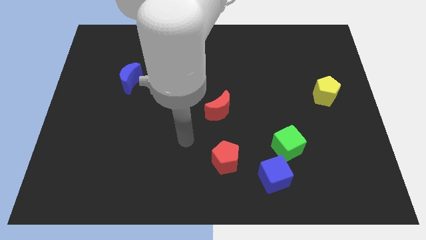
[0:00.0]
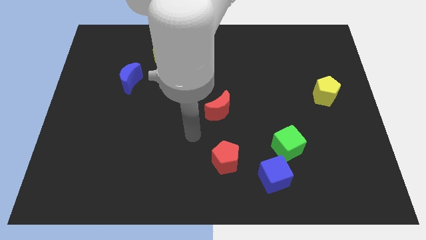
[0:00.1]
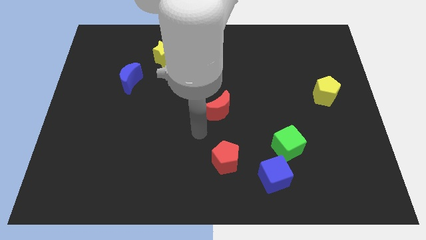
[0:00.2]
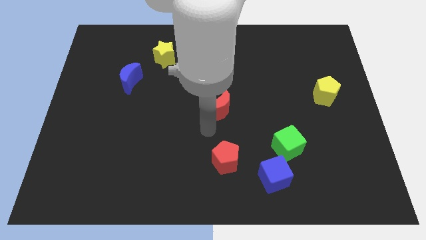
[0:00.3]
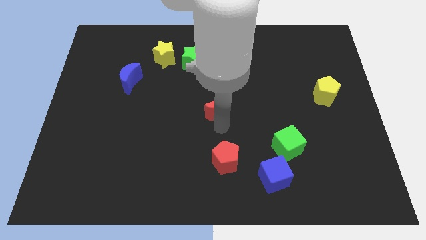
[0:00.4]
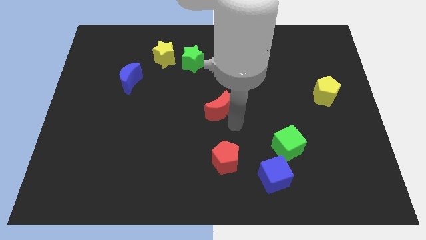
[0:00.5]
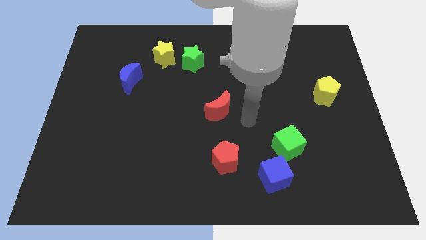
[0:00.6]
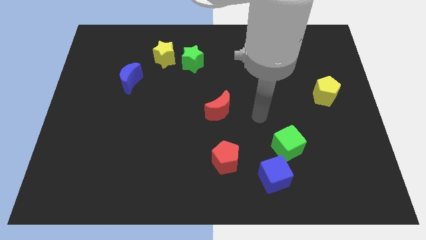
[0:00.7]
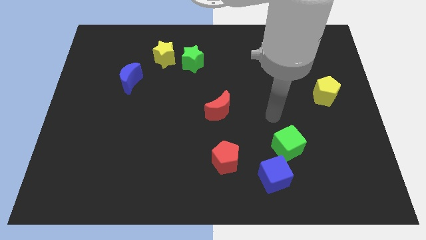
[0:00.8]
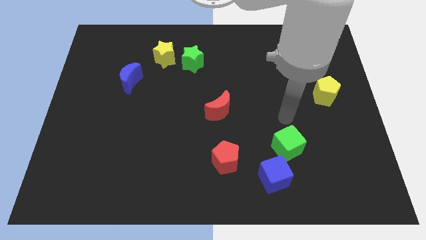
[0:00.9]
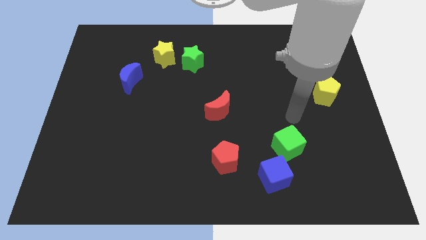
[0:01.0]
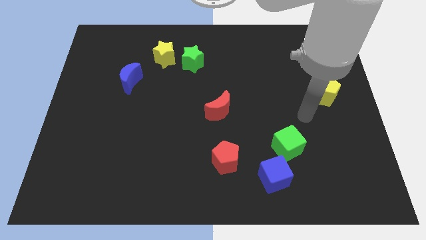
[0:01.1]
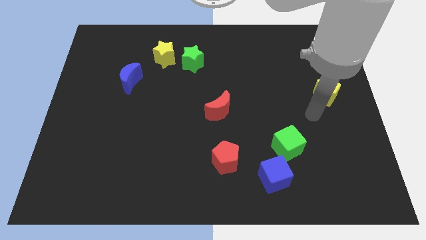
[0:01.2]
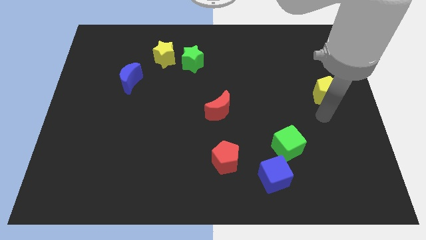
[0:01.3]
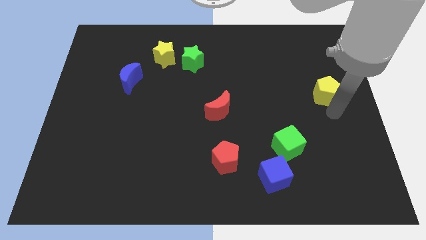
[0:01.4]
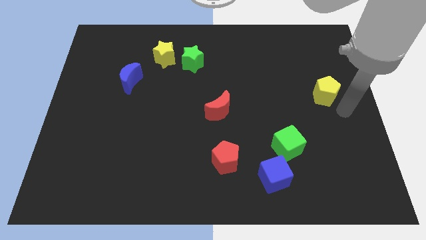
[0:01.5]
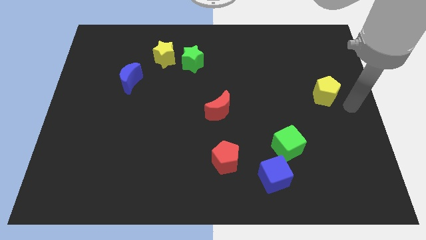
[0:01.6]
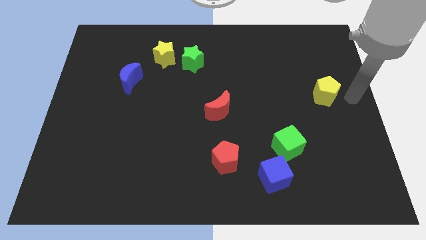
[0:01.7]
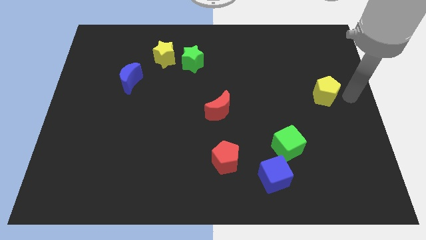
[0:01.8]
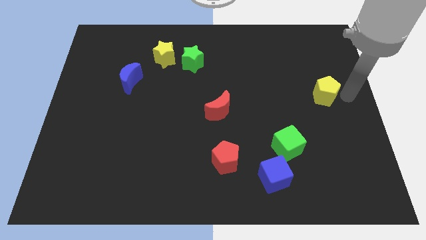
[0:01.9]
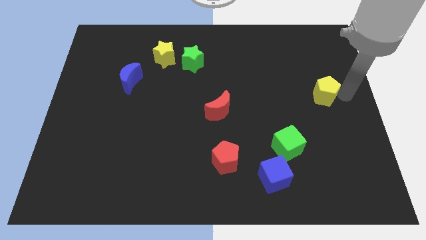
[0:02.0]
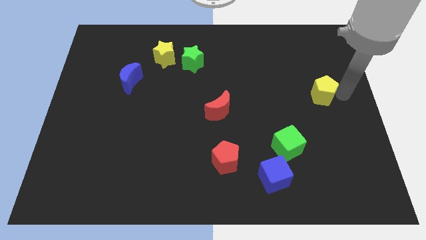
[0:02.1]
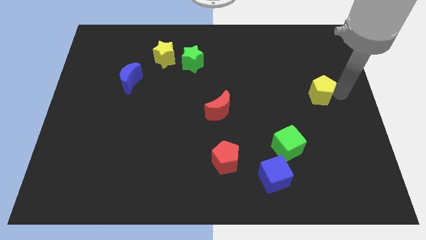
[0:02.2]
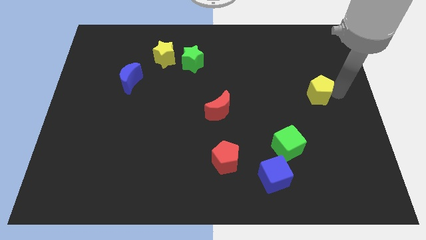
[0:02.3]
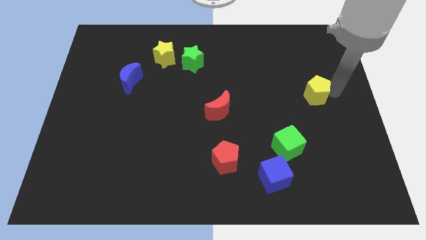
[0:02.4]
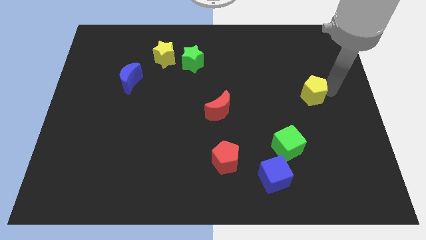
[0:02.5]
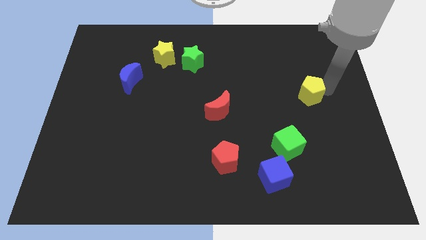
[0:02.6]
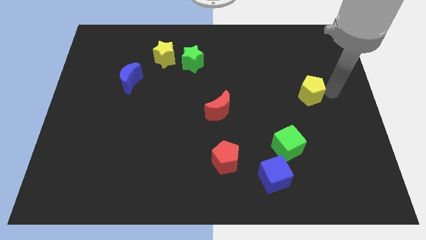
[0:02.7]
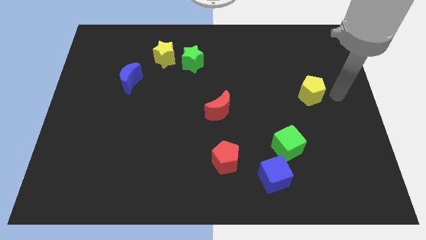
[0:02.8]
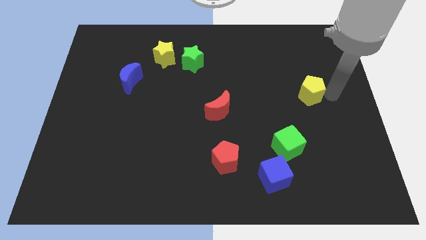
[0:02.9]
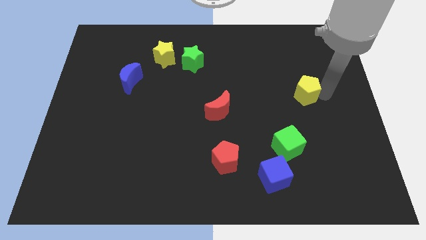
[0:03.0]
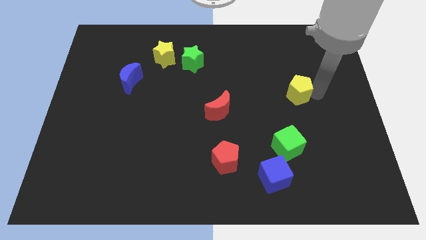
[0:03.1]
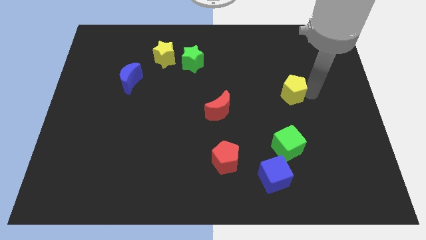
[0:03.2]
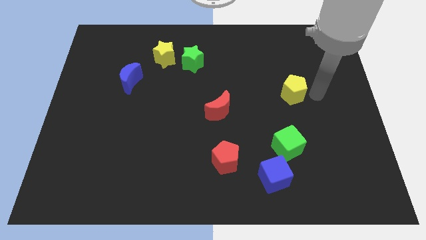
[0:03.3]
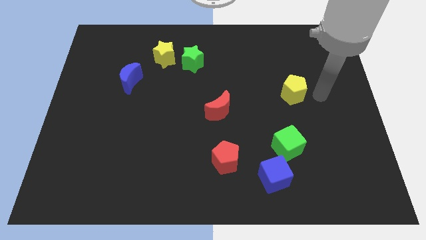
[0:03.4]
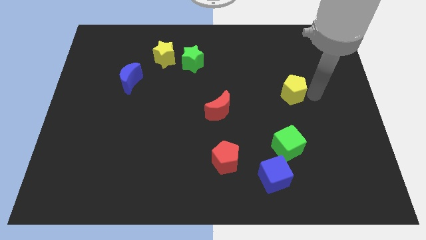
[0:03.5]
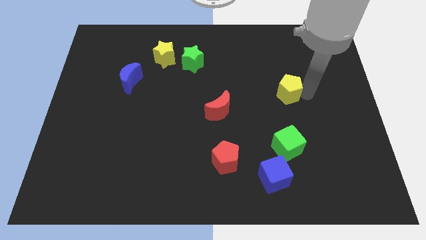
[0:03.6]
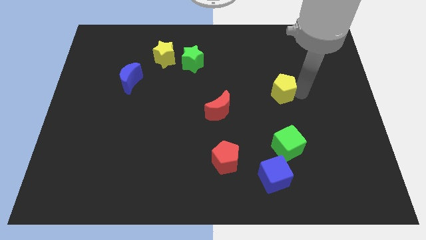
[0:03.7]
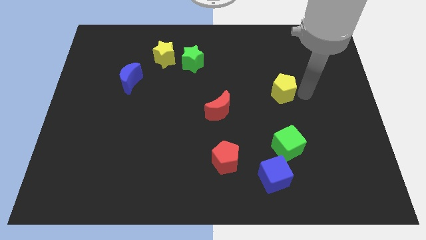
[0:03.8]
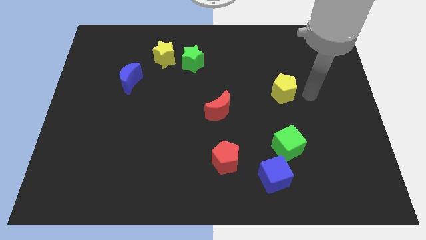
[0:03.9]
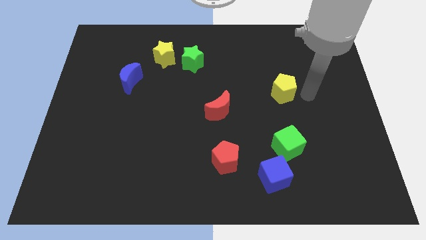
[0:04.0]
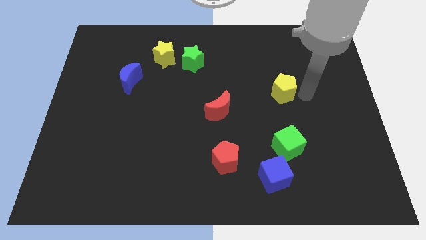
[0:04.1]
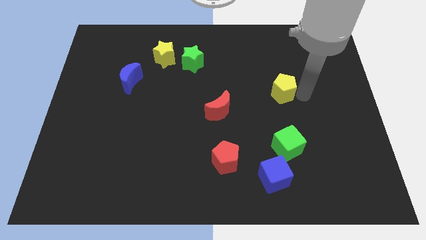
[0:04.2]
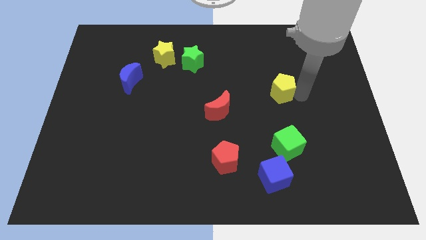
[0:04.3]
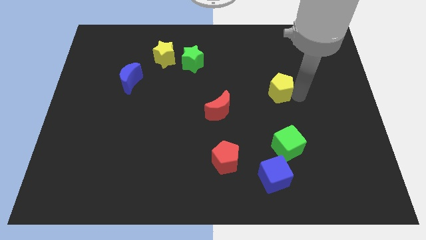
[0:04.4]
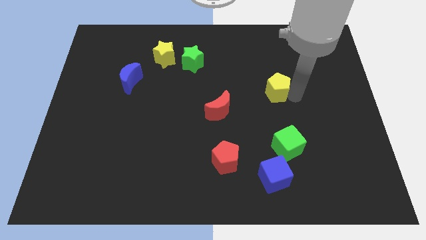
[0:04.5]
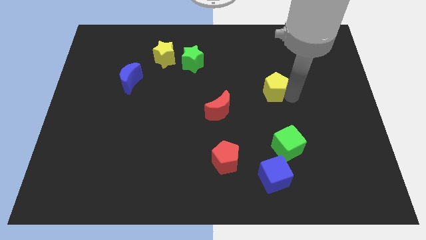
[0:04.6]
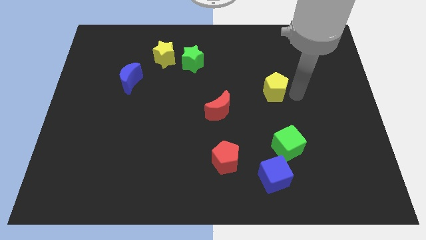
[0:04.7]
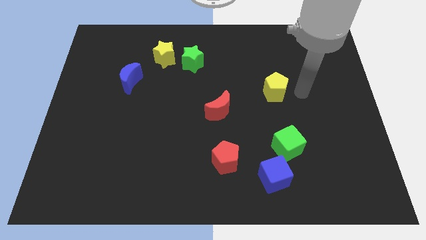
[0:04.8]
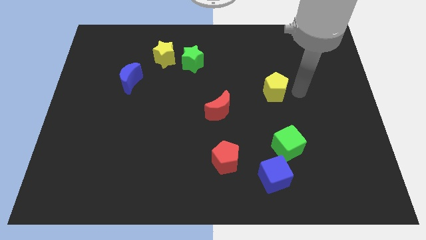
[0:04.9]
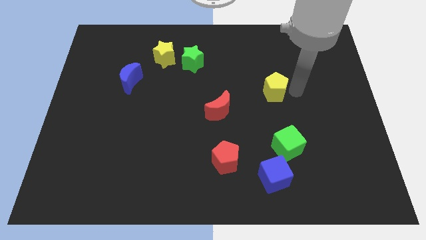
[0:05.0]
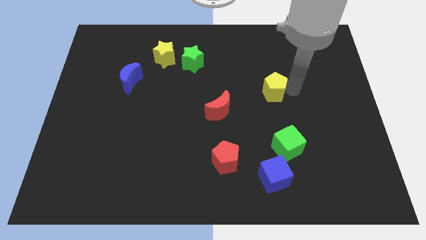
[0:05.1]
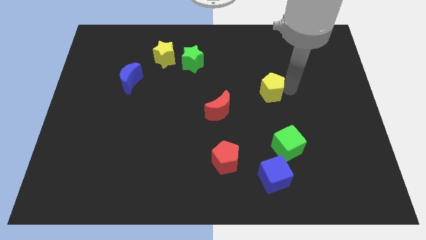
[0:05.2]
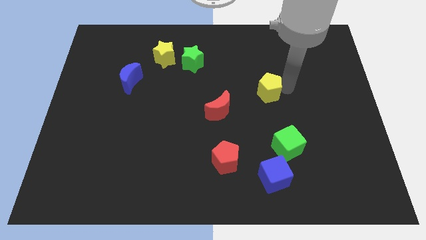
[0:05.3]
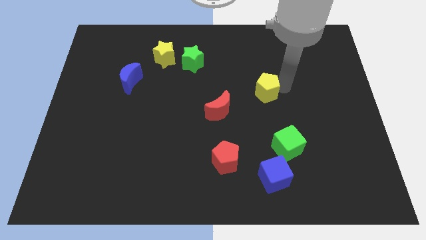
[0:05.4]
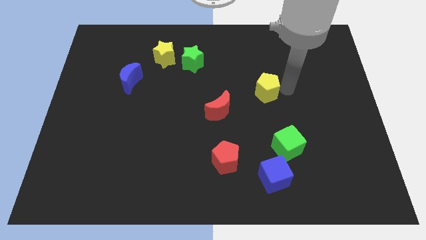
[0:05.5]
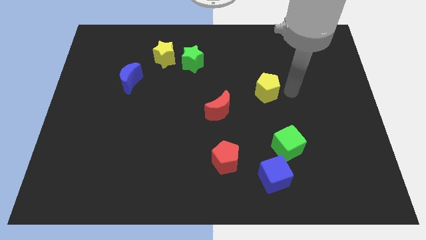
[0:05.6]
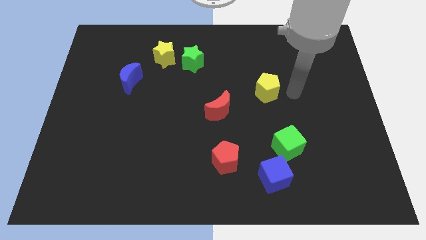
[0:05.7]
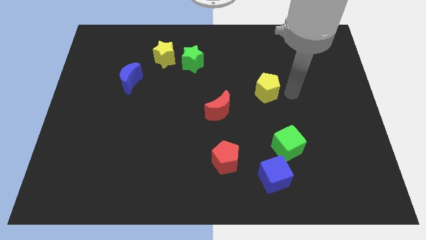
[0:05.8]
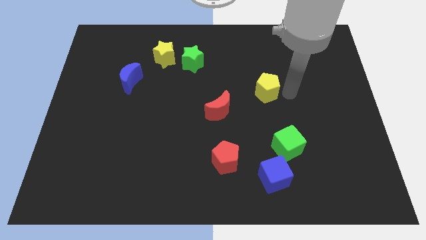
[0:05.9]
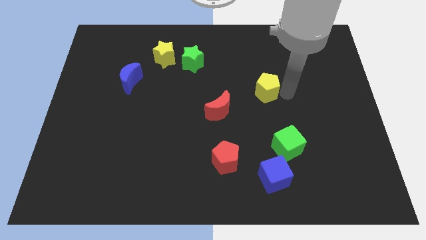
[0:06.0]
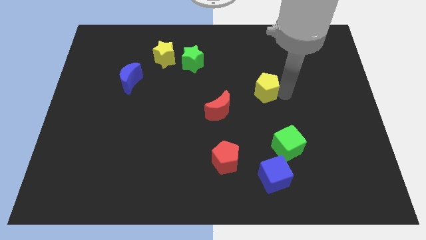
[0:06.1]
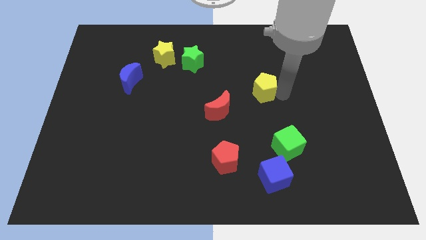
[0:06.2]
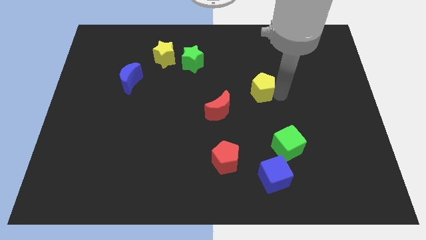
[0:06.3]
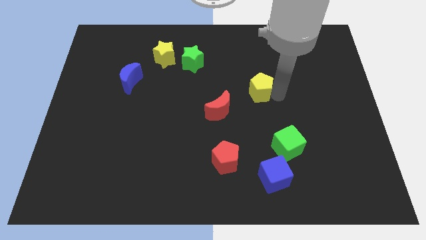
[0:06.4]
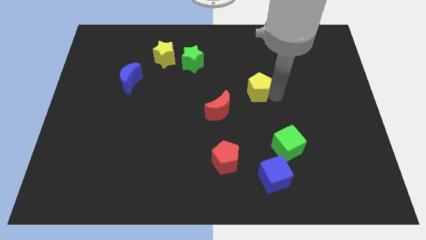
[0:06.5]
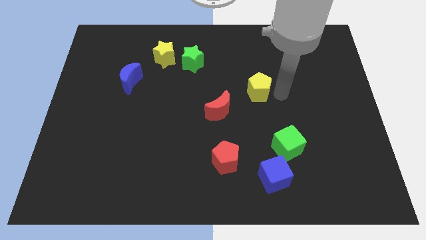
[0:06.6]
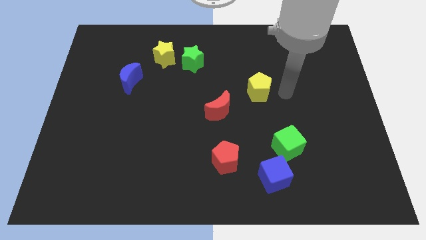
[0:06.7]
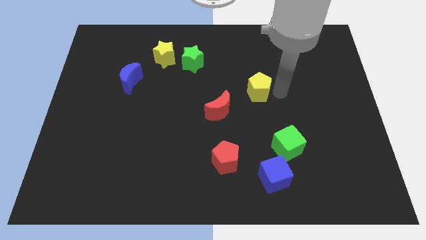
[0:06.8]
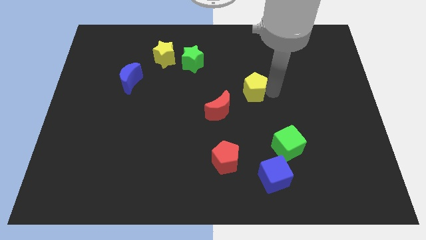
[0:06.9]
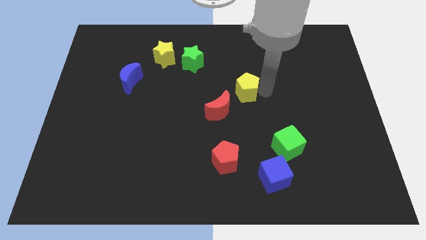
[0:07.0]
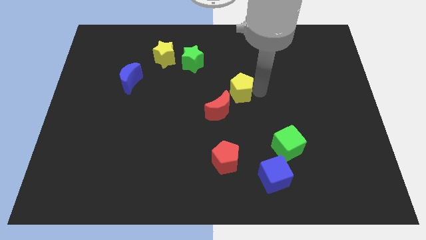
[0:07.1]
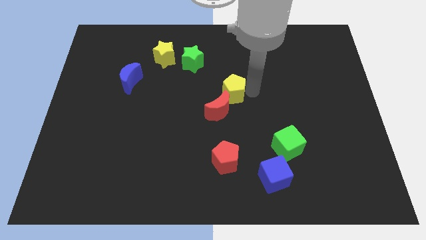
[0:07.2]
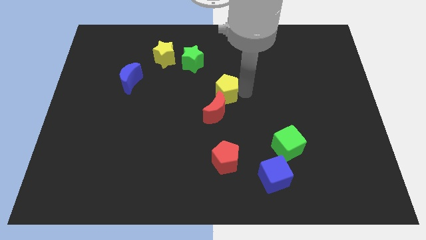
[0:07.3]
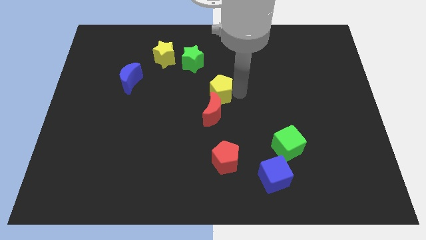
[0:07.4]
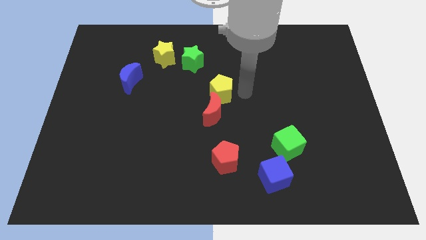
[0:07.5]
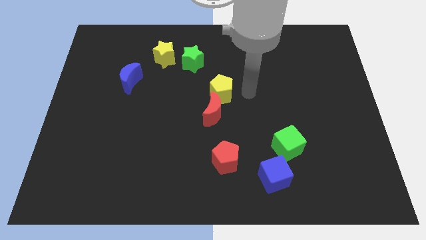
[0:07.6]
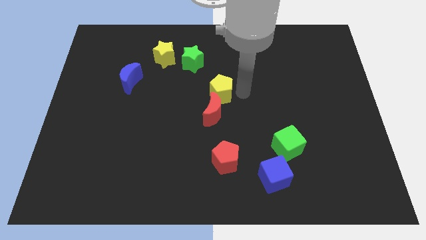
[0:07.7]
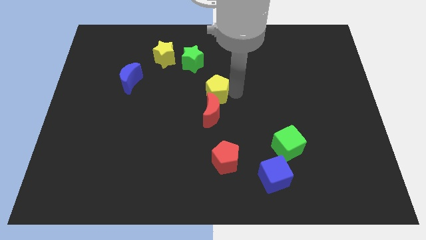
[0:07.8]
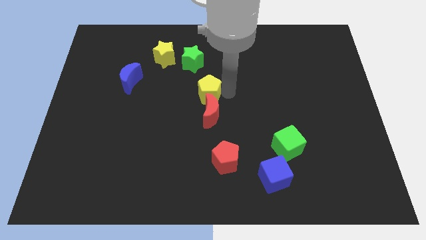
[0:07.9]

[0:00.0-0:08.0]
put the yellow pentagon to the bottom side of the green star
